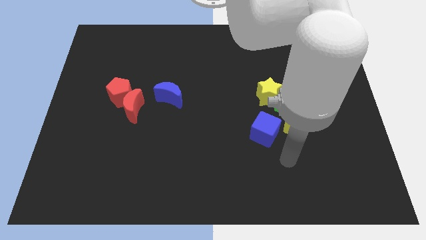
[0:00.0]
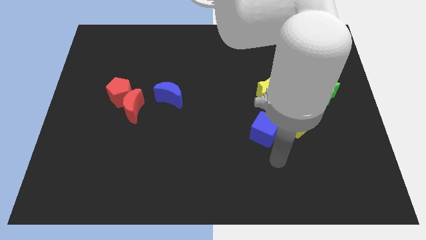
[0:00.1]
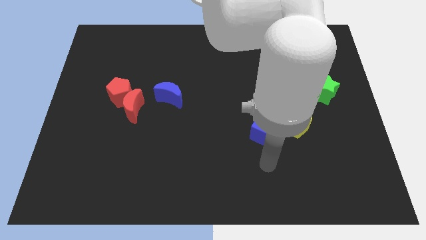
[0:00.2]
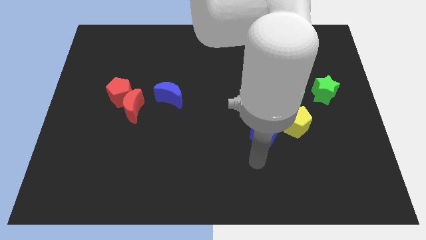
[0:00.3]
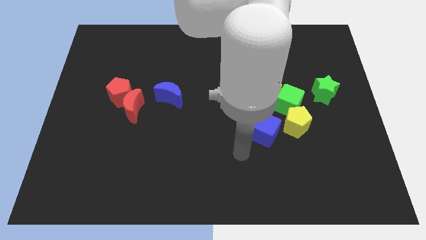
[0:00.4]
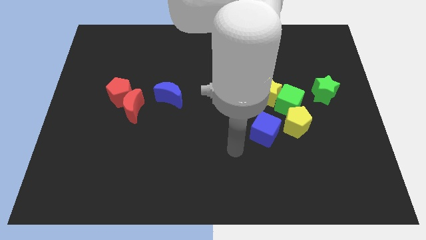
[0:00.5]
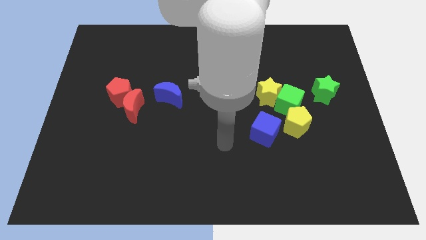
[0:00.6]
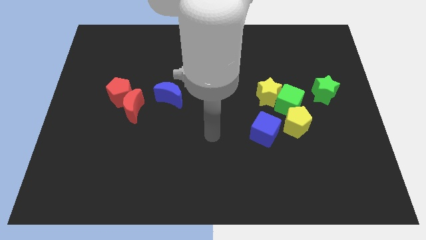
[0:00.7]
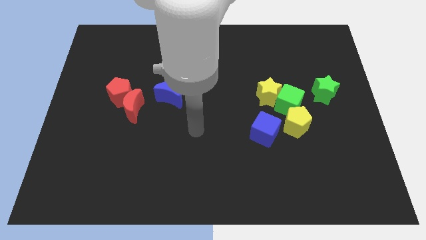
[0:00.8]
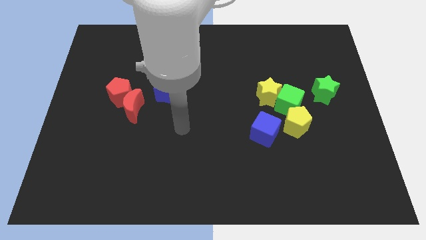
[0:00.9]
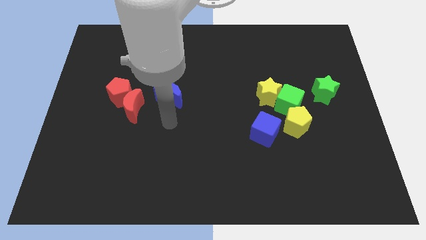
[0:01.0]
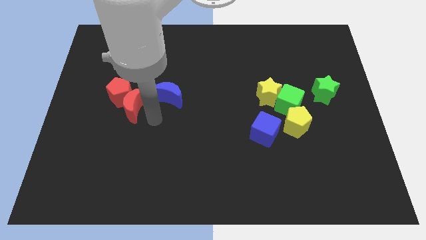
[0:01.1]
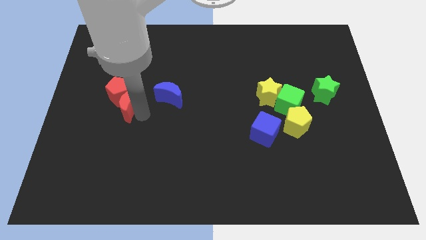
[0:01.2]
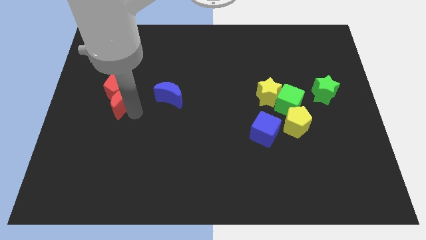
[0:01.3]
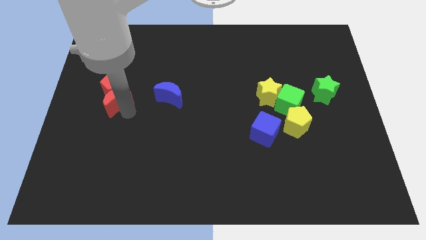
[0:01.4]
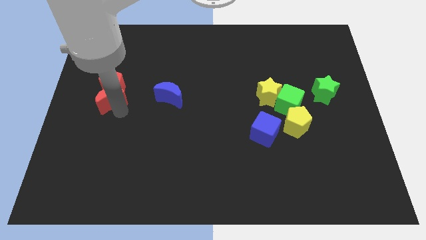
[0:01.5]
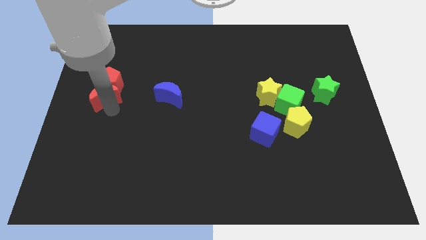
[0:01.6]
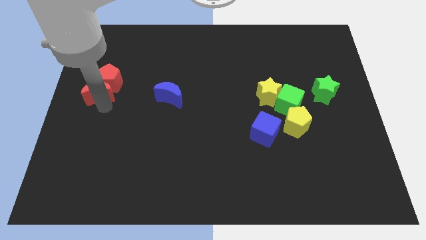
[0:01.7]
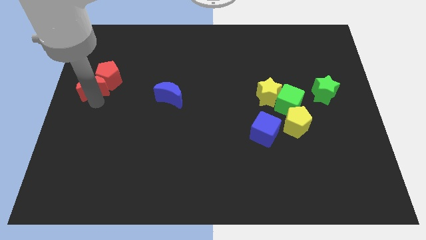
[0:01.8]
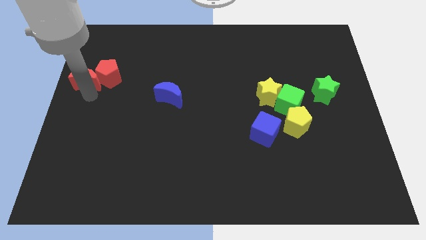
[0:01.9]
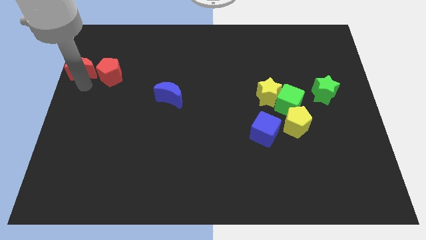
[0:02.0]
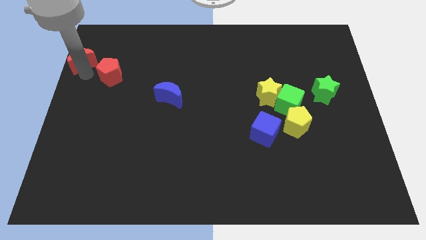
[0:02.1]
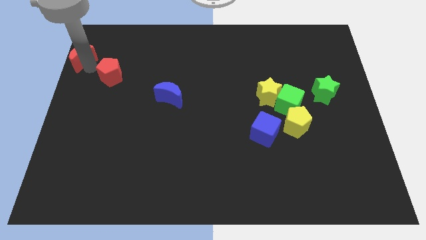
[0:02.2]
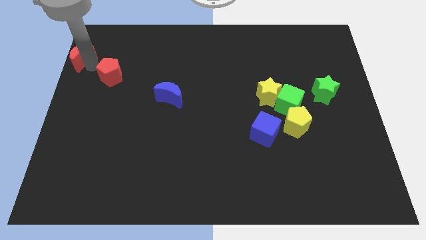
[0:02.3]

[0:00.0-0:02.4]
pull the red pentagon apart from the red moon

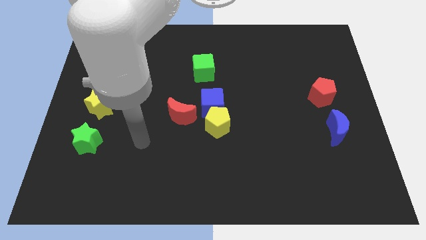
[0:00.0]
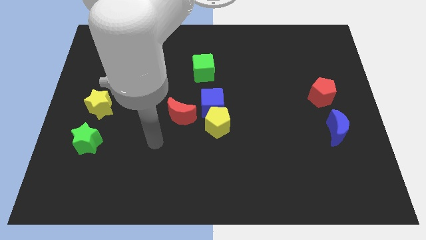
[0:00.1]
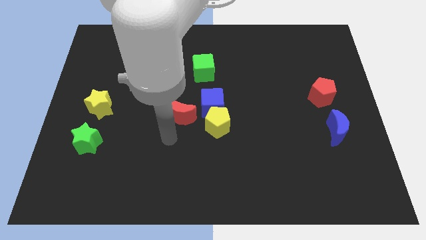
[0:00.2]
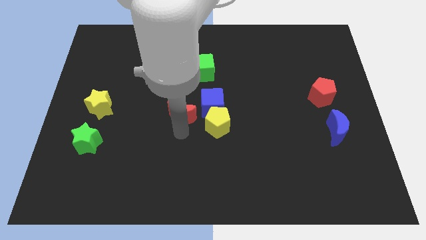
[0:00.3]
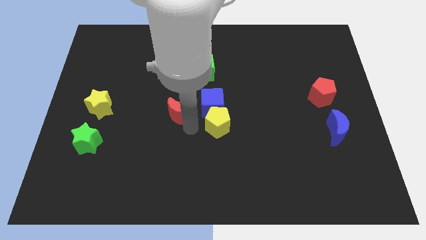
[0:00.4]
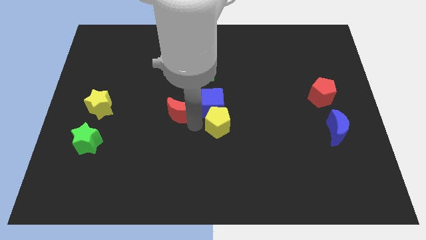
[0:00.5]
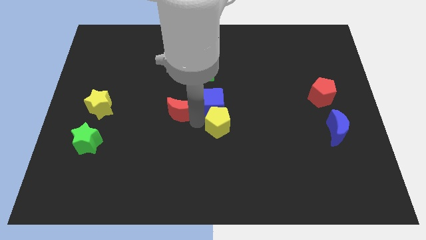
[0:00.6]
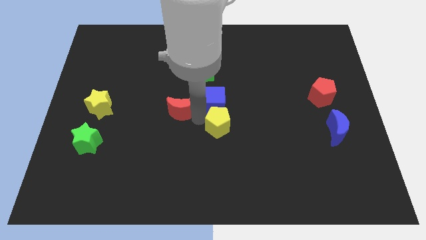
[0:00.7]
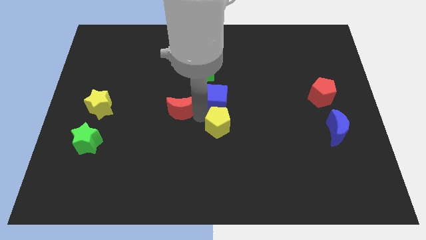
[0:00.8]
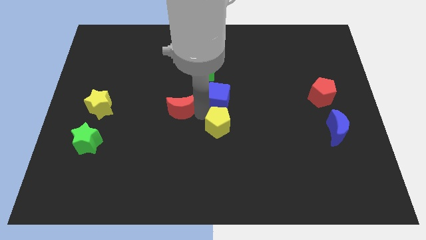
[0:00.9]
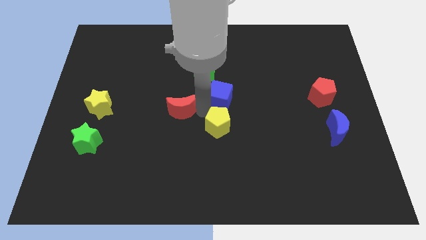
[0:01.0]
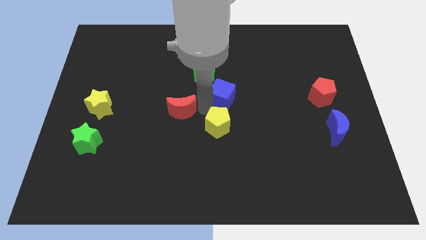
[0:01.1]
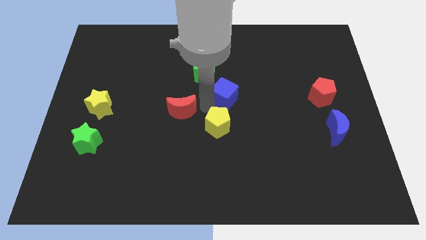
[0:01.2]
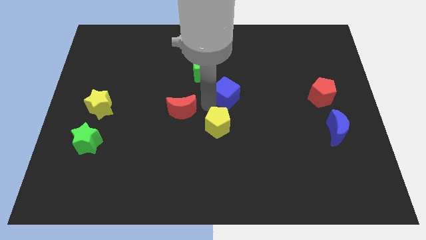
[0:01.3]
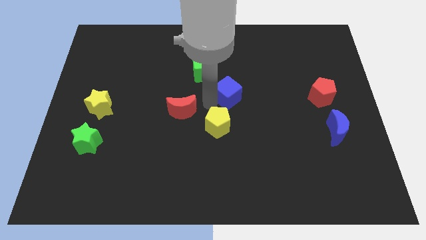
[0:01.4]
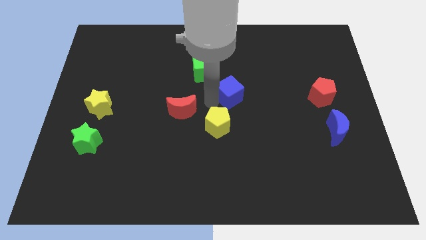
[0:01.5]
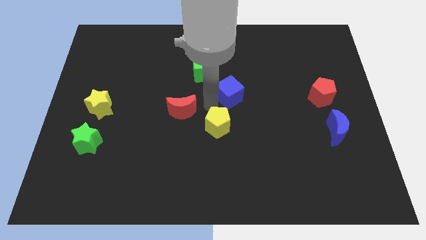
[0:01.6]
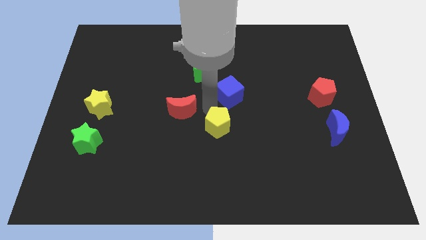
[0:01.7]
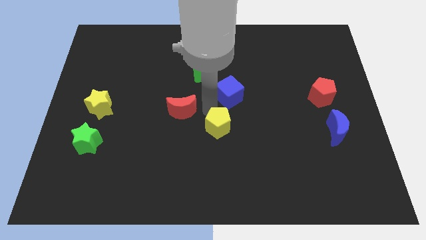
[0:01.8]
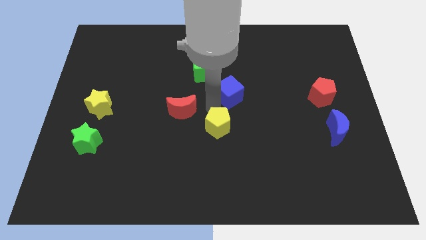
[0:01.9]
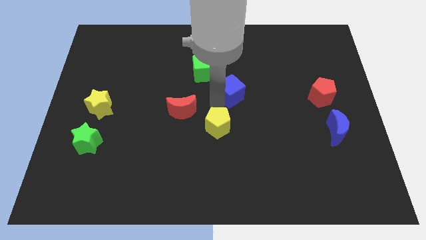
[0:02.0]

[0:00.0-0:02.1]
move the blue cube away from the yellow pentagon and red moon

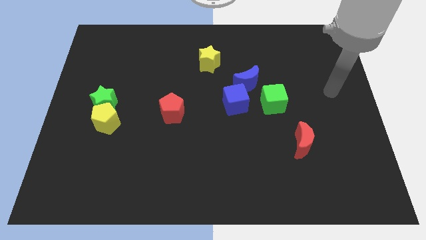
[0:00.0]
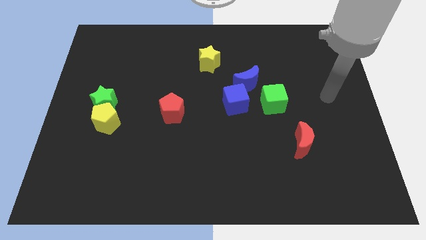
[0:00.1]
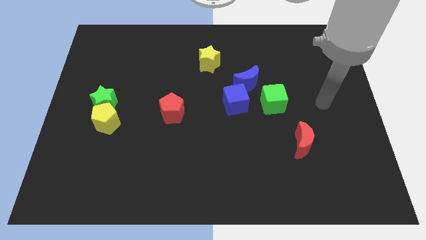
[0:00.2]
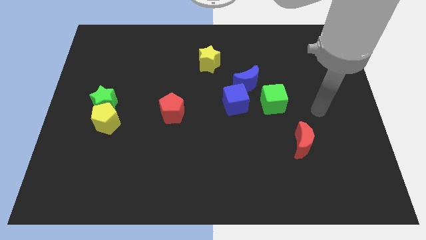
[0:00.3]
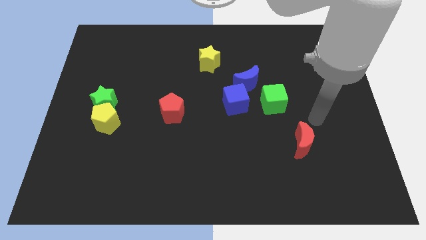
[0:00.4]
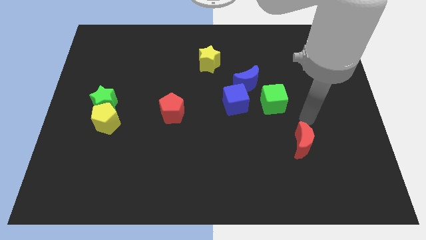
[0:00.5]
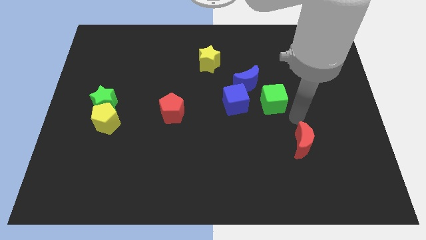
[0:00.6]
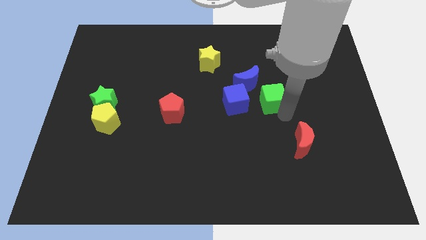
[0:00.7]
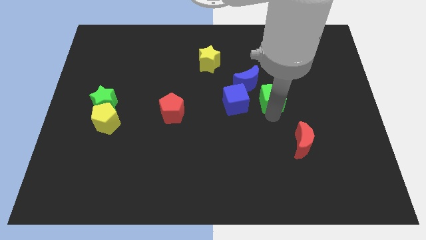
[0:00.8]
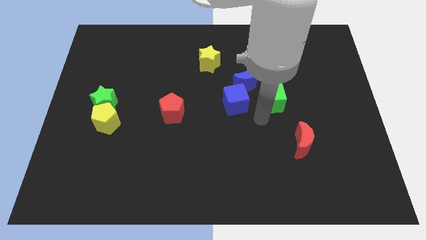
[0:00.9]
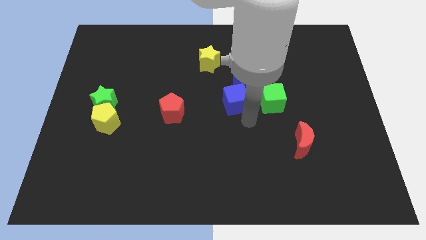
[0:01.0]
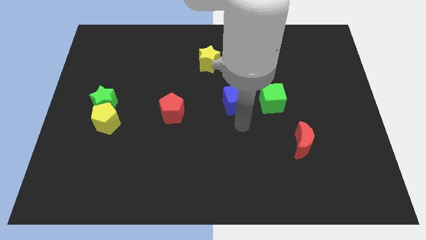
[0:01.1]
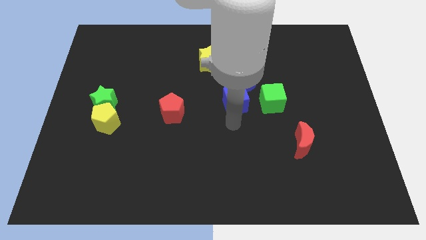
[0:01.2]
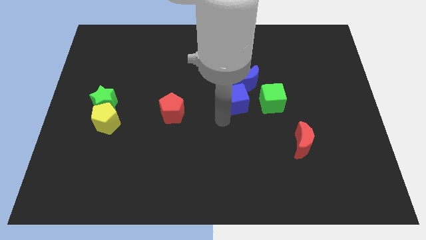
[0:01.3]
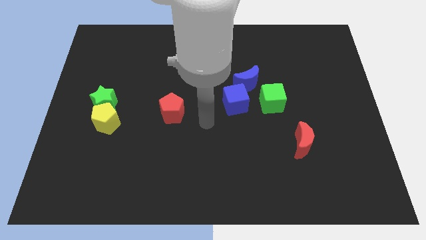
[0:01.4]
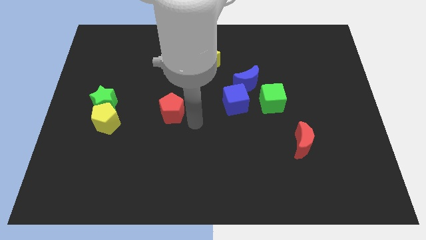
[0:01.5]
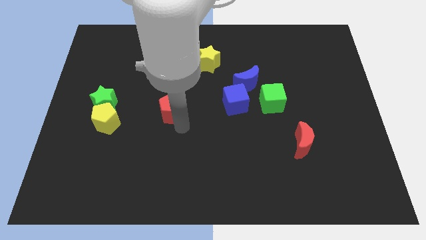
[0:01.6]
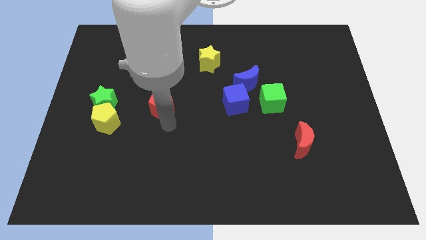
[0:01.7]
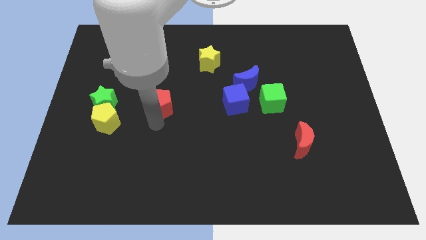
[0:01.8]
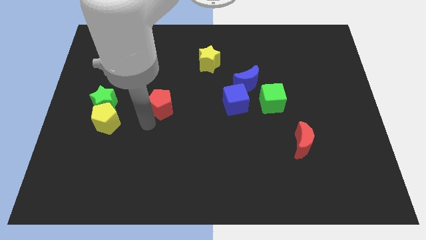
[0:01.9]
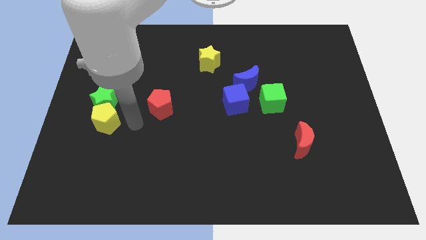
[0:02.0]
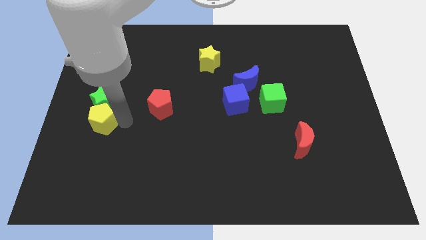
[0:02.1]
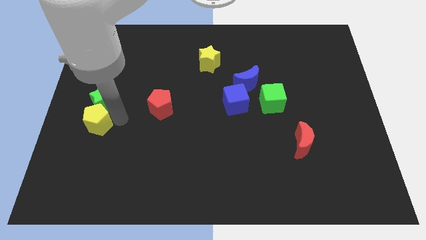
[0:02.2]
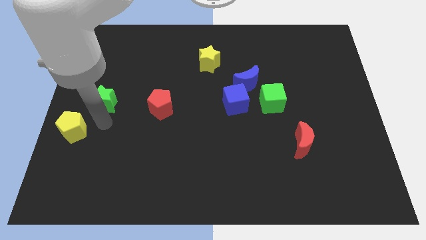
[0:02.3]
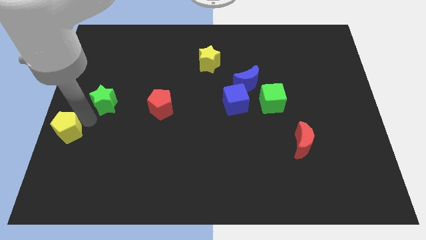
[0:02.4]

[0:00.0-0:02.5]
move the green star away from the yellow pentagon

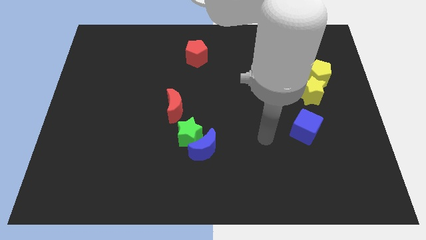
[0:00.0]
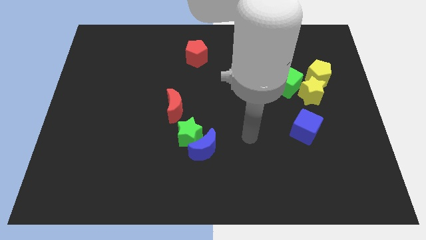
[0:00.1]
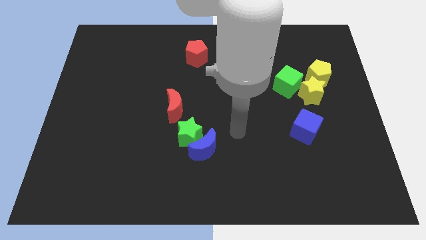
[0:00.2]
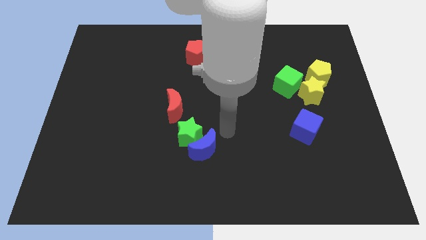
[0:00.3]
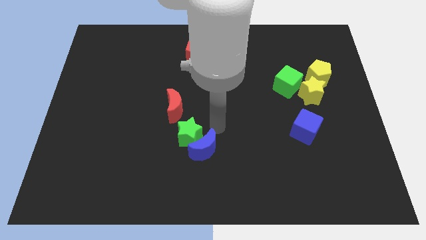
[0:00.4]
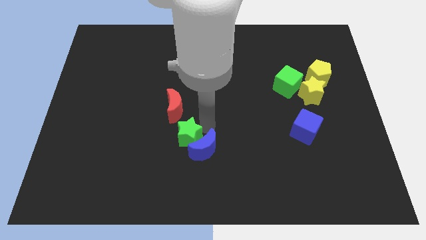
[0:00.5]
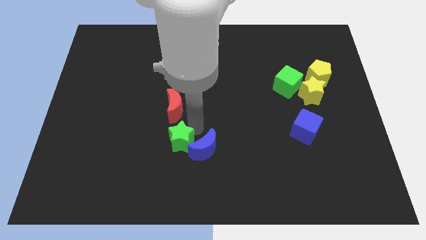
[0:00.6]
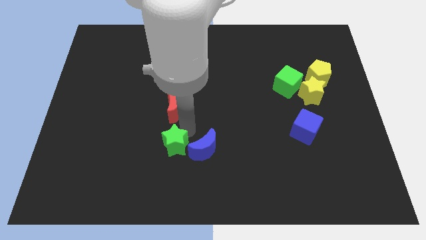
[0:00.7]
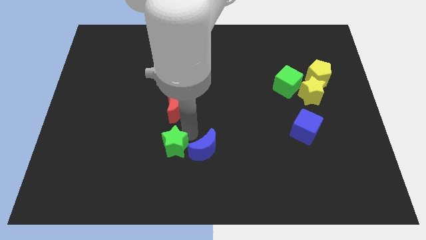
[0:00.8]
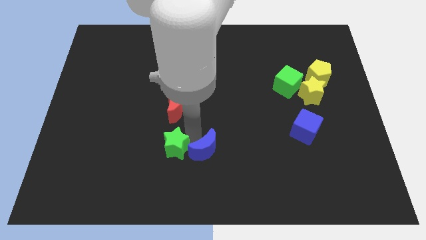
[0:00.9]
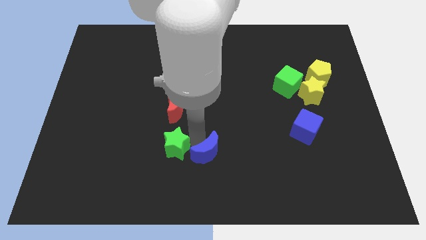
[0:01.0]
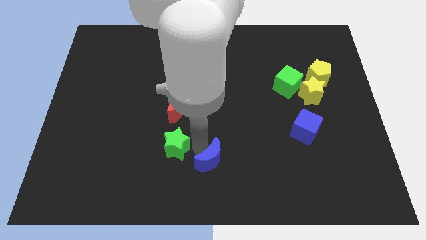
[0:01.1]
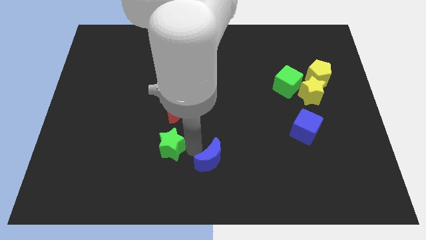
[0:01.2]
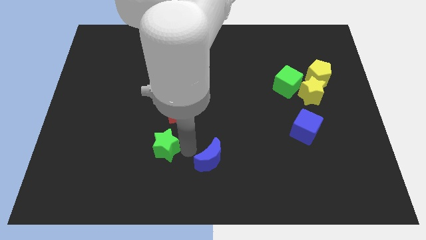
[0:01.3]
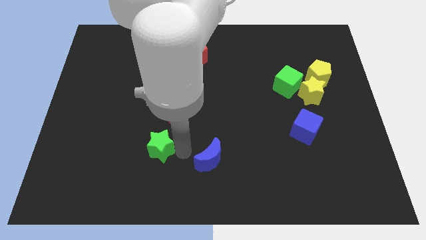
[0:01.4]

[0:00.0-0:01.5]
move the blue moon away from the green star

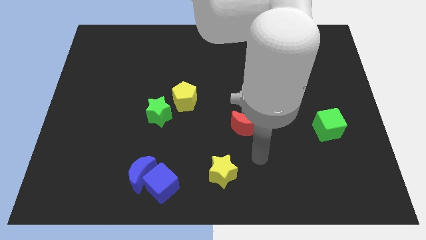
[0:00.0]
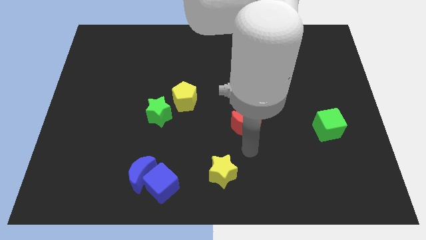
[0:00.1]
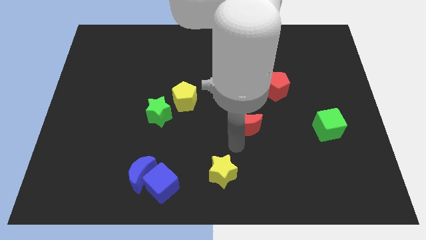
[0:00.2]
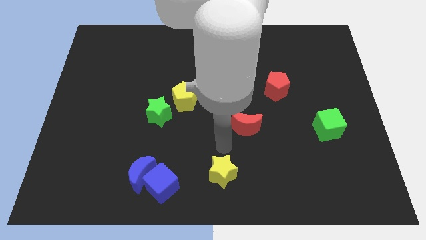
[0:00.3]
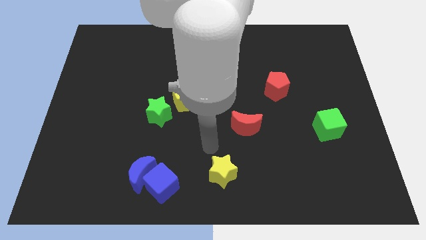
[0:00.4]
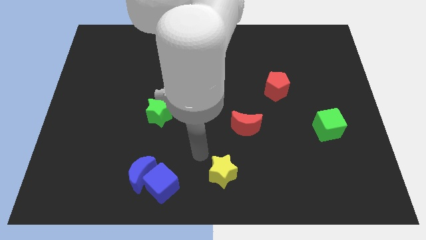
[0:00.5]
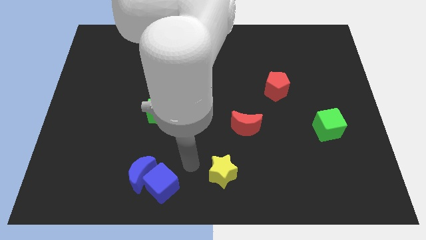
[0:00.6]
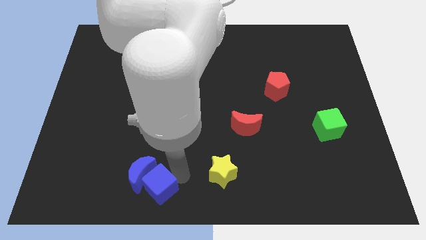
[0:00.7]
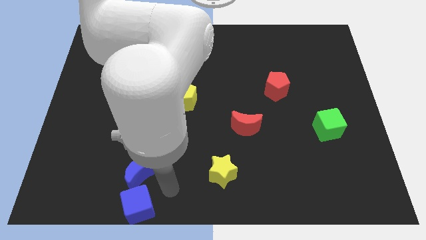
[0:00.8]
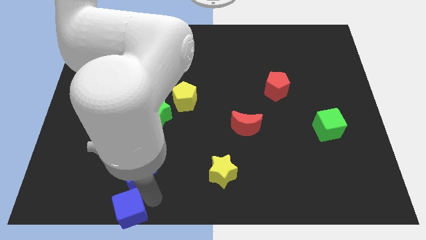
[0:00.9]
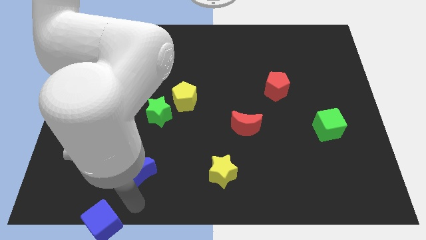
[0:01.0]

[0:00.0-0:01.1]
separate the blue moon from the blue cube
